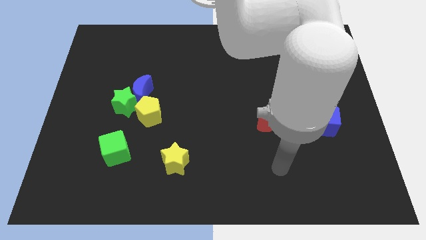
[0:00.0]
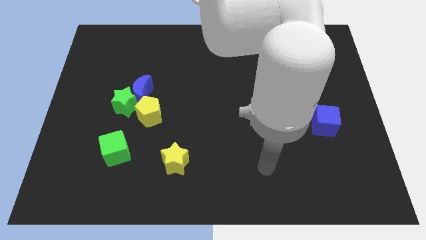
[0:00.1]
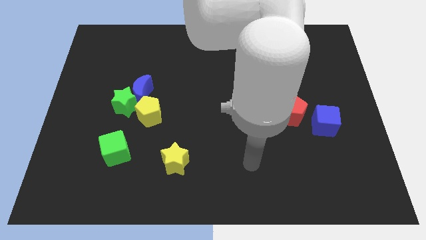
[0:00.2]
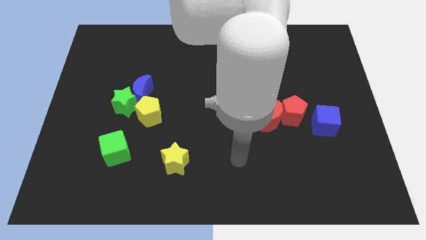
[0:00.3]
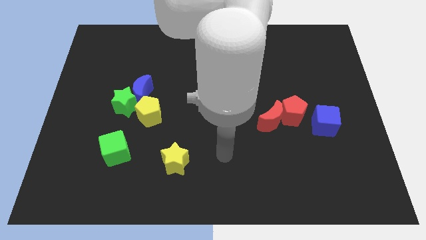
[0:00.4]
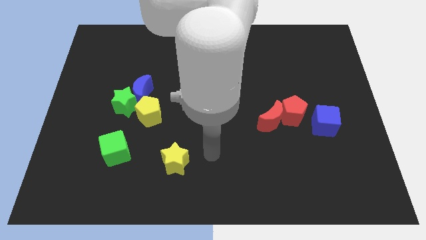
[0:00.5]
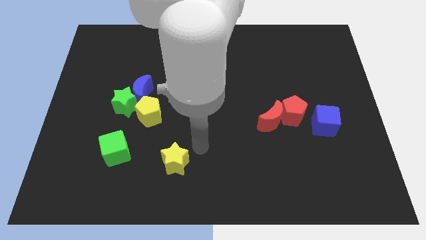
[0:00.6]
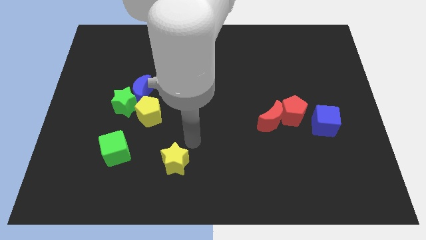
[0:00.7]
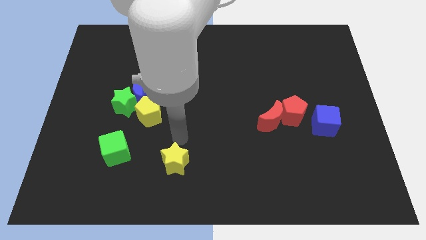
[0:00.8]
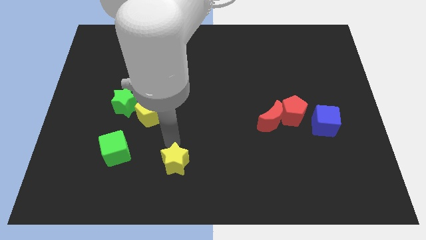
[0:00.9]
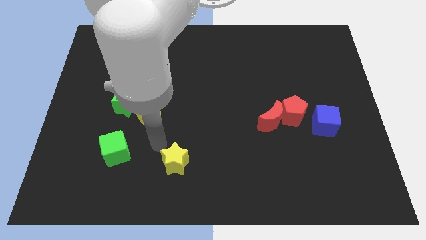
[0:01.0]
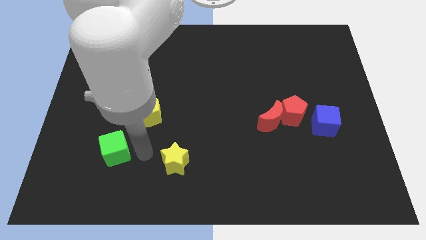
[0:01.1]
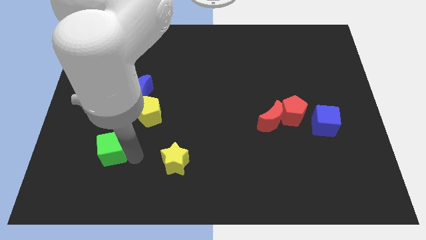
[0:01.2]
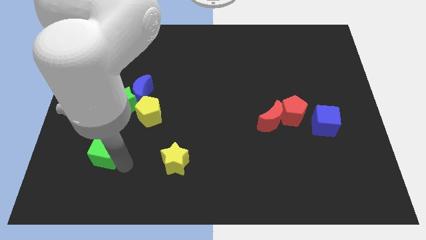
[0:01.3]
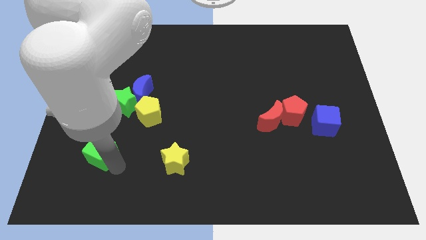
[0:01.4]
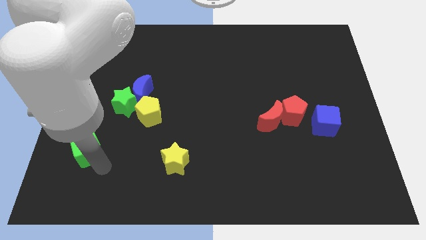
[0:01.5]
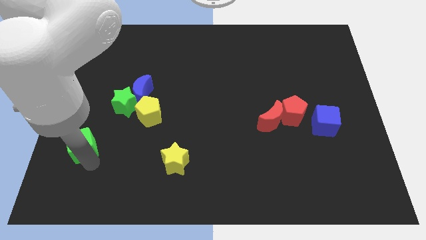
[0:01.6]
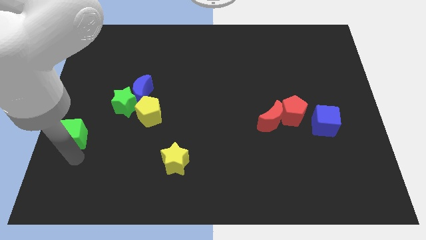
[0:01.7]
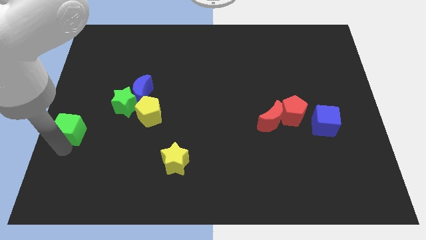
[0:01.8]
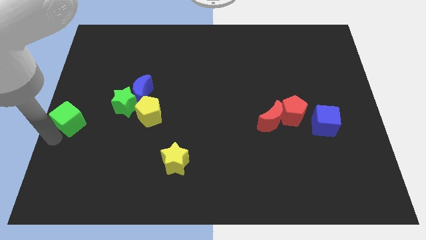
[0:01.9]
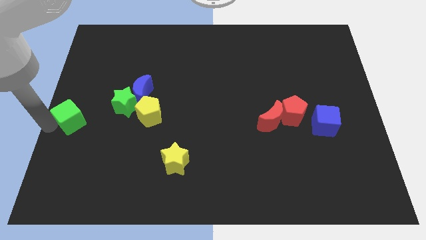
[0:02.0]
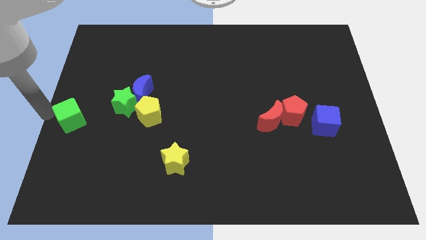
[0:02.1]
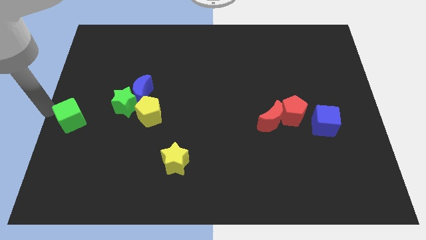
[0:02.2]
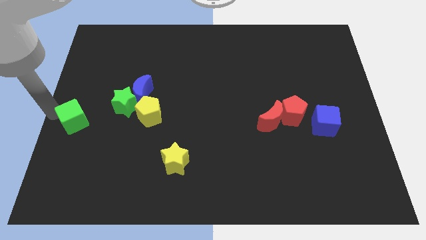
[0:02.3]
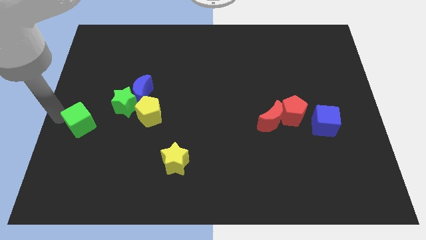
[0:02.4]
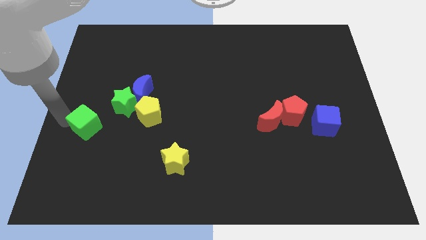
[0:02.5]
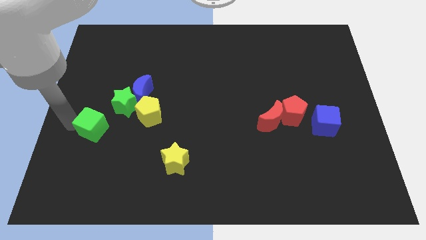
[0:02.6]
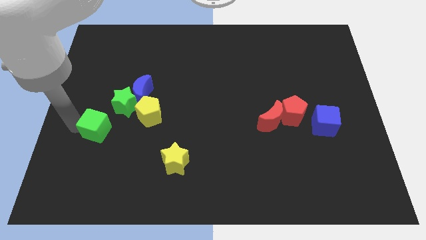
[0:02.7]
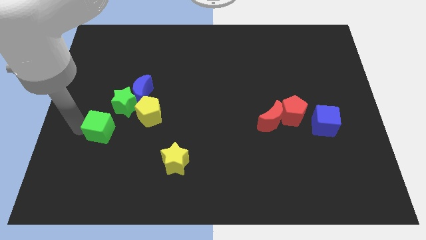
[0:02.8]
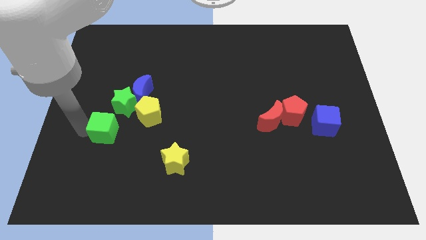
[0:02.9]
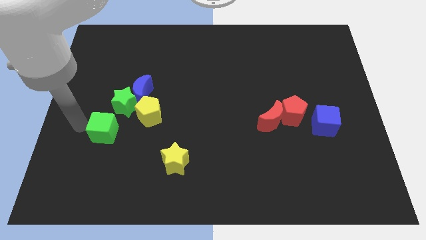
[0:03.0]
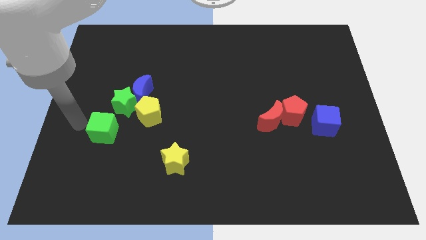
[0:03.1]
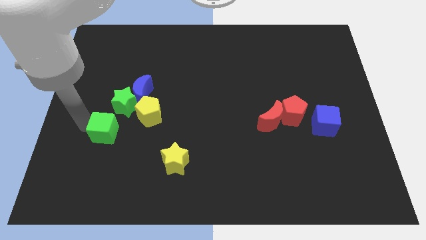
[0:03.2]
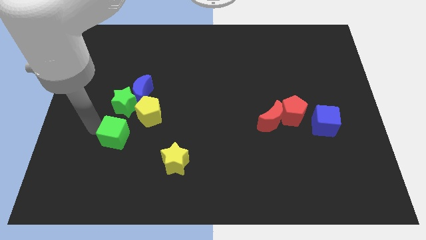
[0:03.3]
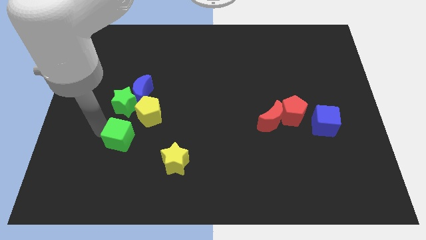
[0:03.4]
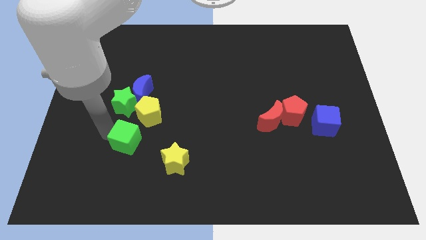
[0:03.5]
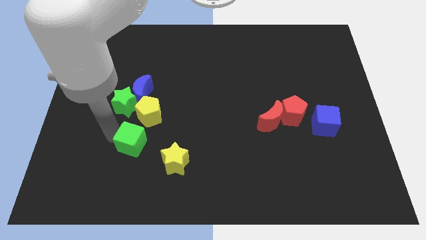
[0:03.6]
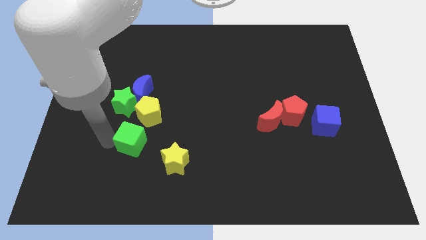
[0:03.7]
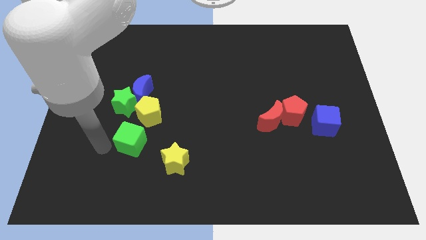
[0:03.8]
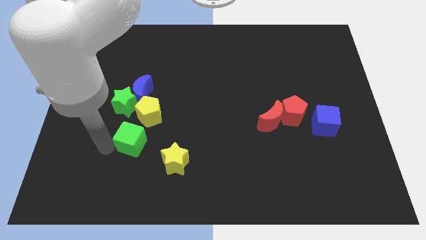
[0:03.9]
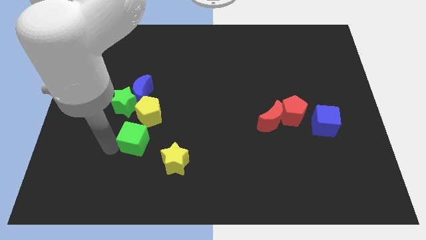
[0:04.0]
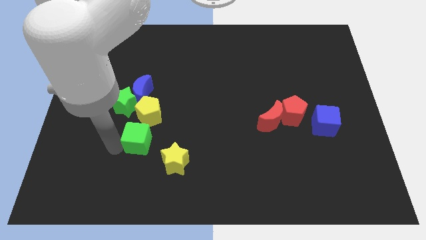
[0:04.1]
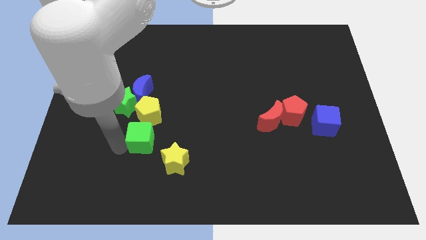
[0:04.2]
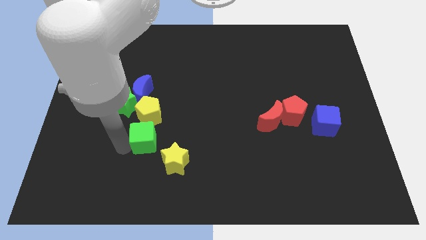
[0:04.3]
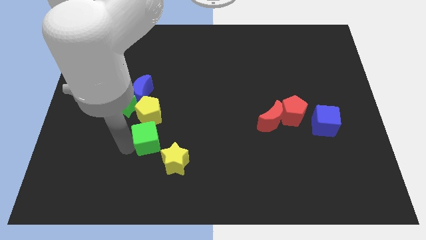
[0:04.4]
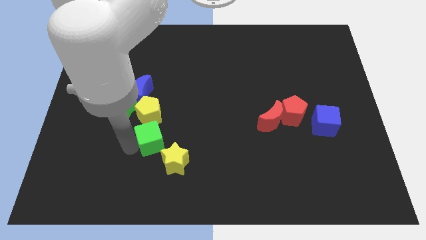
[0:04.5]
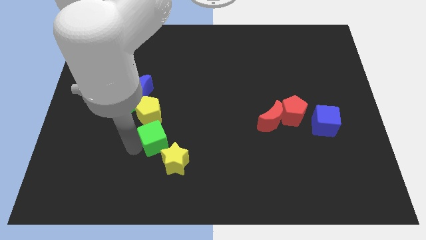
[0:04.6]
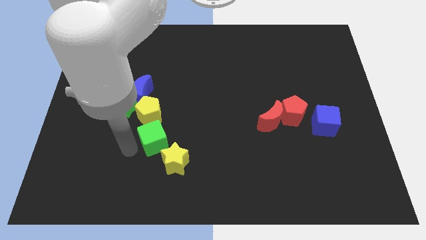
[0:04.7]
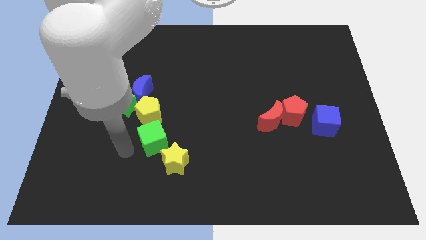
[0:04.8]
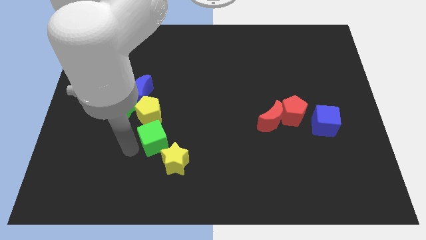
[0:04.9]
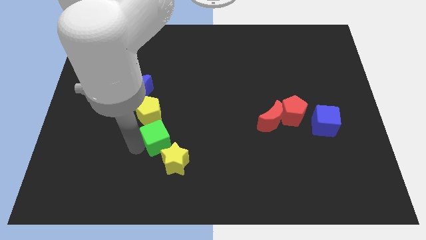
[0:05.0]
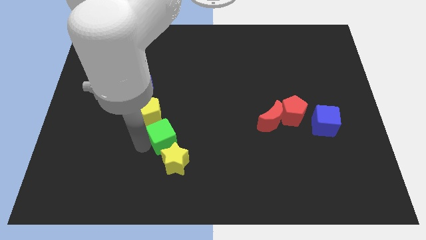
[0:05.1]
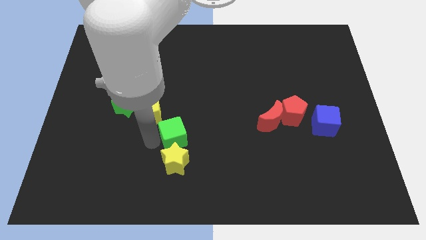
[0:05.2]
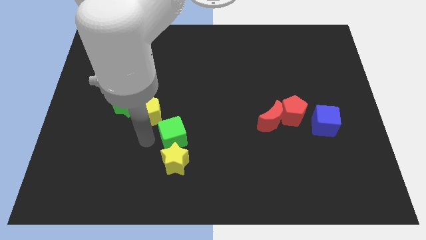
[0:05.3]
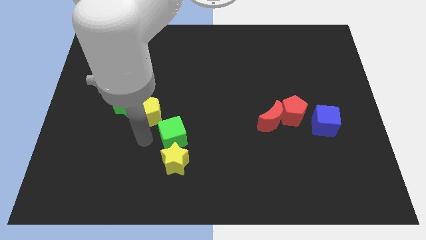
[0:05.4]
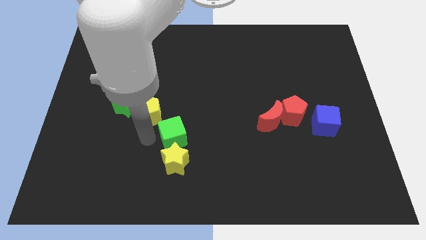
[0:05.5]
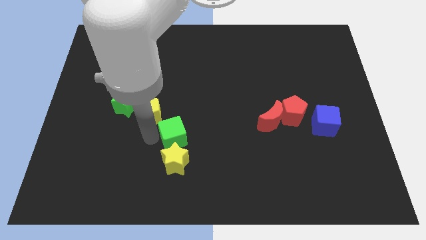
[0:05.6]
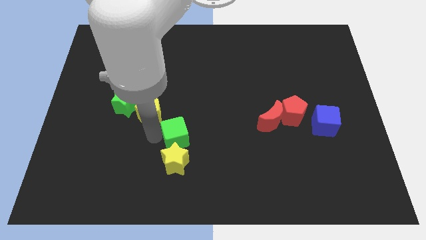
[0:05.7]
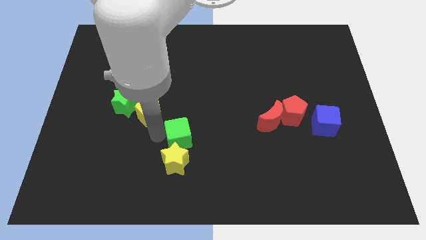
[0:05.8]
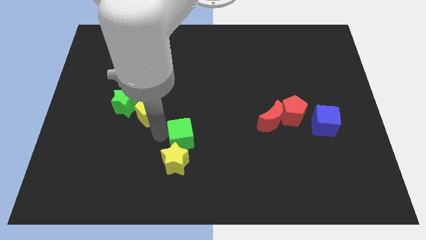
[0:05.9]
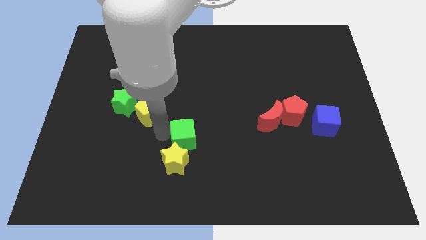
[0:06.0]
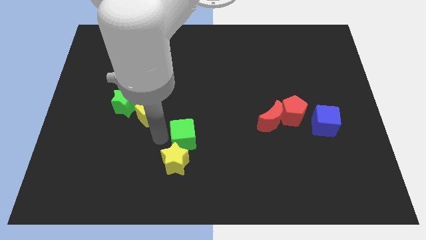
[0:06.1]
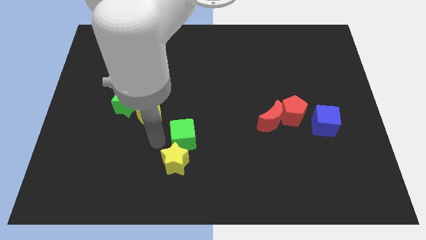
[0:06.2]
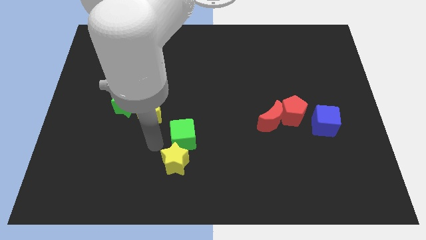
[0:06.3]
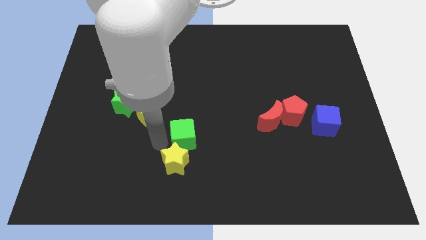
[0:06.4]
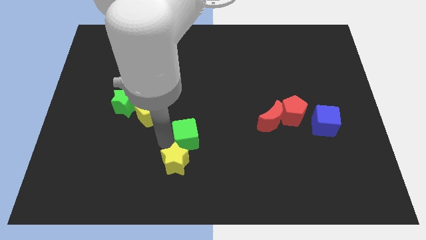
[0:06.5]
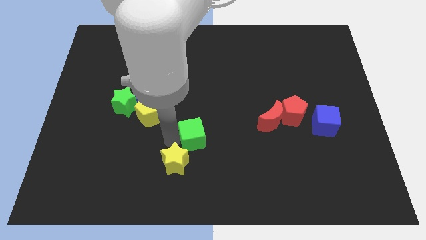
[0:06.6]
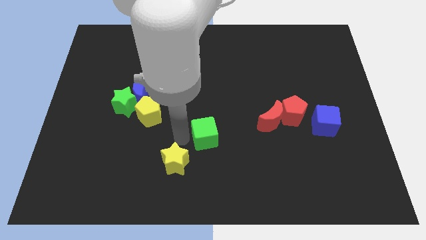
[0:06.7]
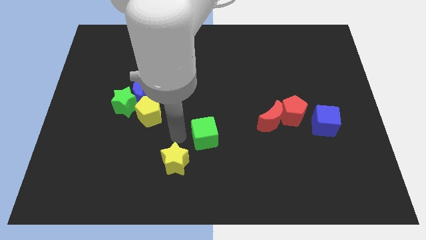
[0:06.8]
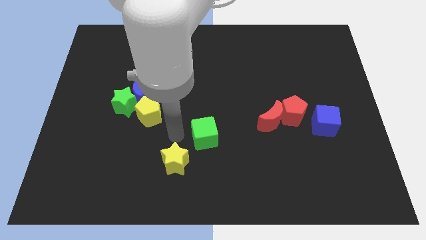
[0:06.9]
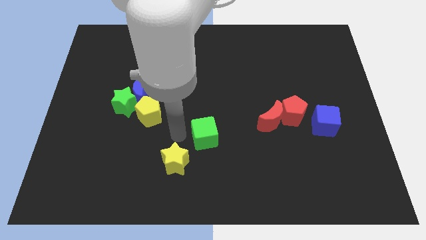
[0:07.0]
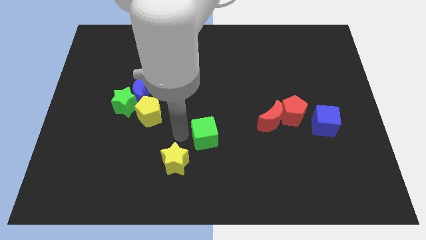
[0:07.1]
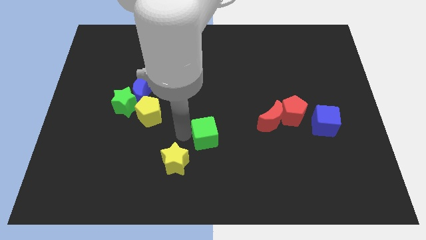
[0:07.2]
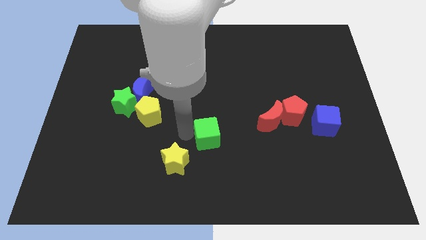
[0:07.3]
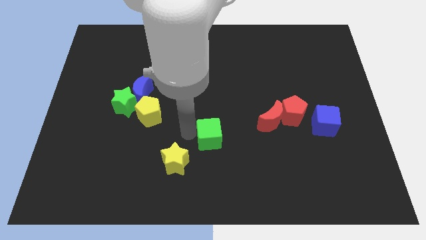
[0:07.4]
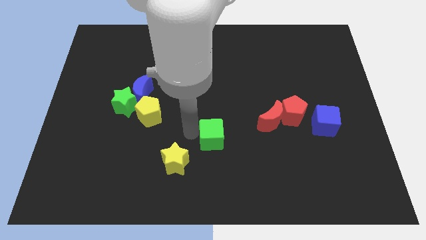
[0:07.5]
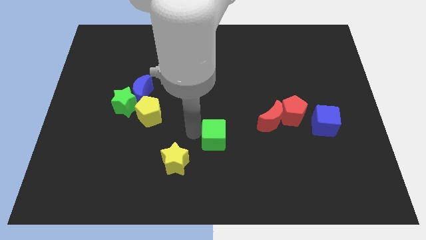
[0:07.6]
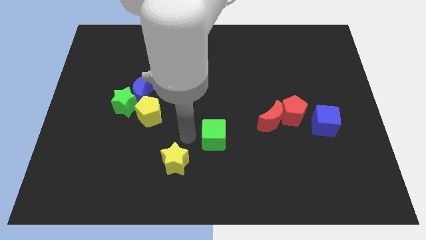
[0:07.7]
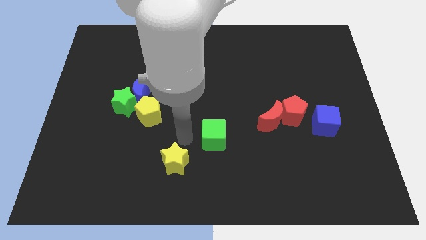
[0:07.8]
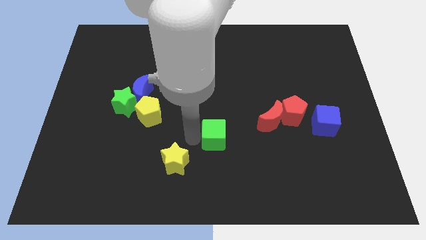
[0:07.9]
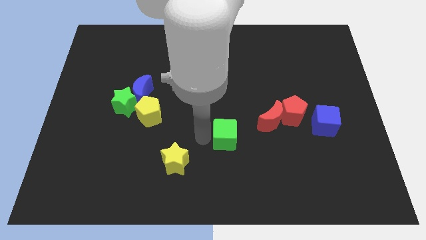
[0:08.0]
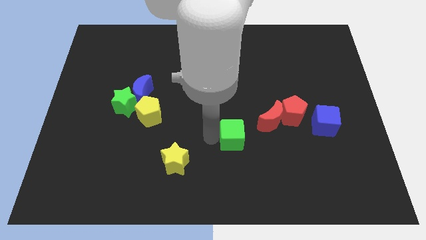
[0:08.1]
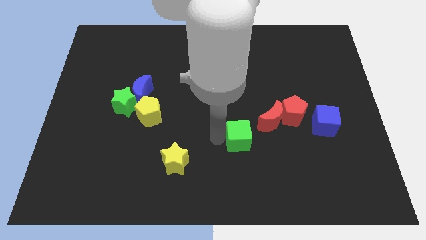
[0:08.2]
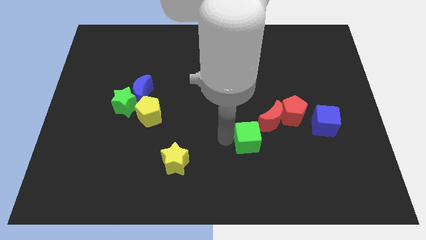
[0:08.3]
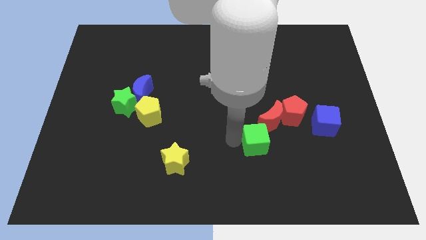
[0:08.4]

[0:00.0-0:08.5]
push the green cube to the bottom left side of the red pentagon
